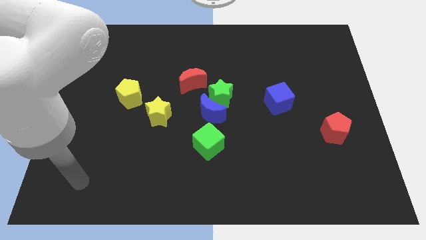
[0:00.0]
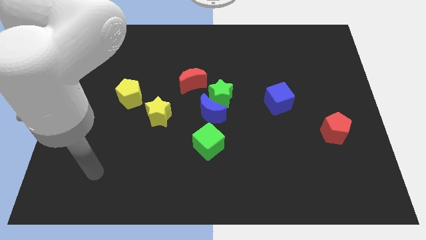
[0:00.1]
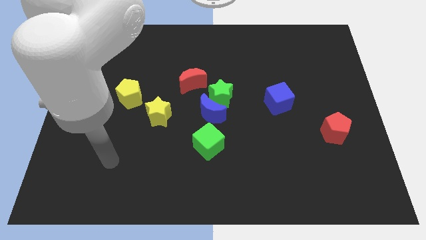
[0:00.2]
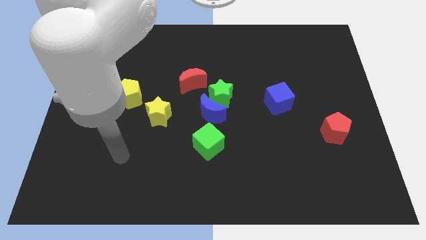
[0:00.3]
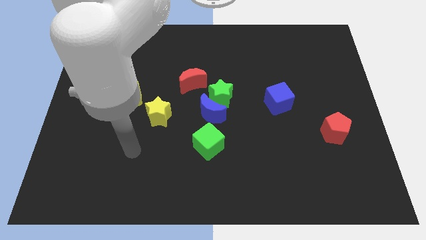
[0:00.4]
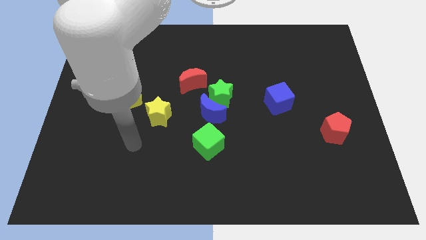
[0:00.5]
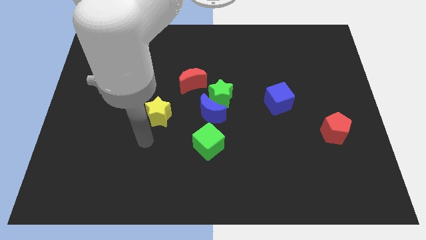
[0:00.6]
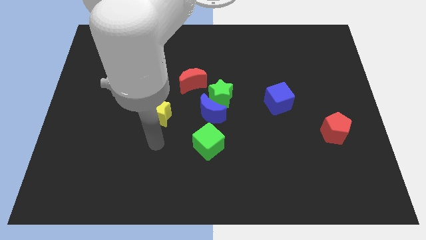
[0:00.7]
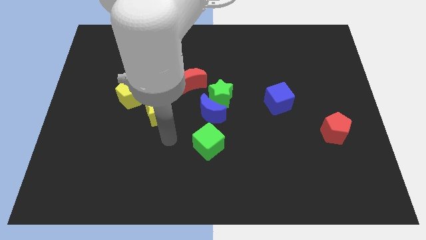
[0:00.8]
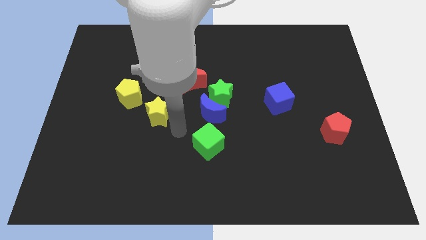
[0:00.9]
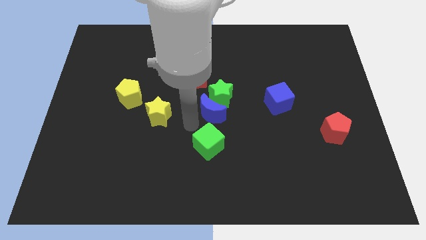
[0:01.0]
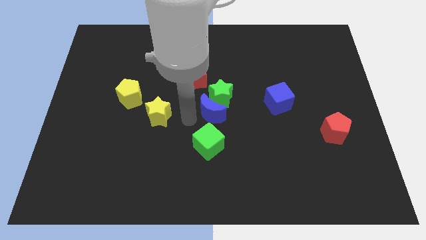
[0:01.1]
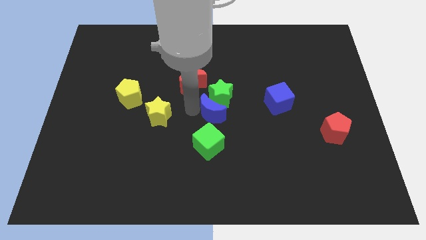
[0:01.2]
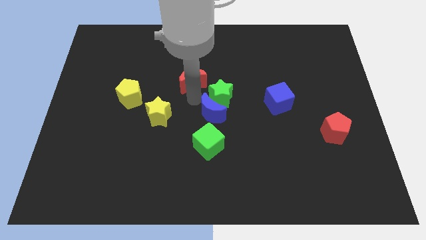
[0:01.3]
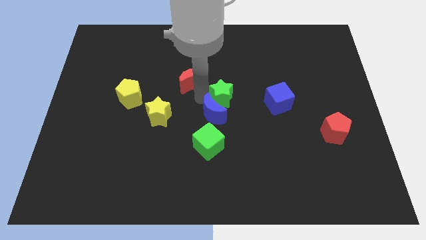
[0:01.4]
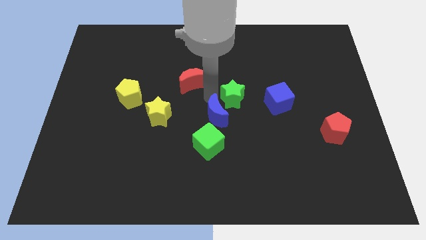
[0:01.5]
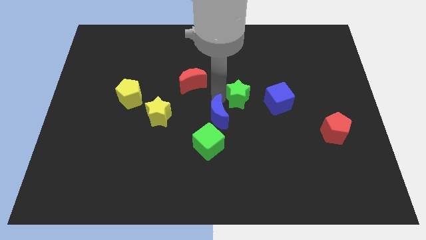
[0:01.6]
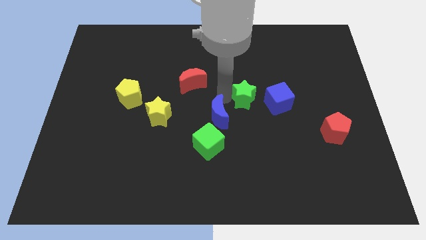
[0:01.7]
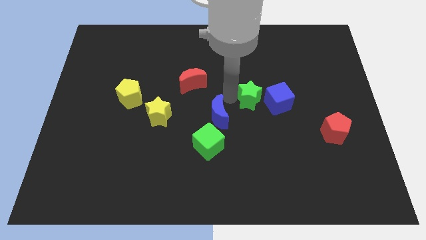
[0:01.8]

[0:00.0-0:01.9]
move the green star away from the blue moon and red moon

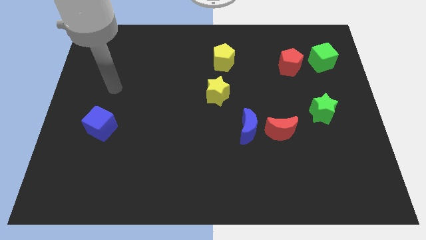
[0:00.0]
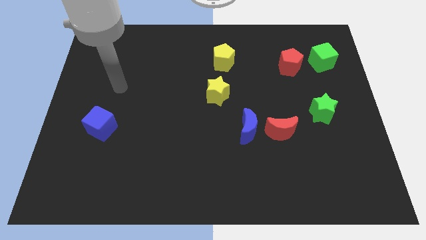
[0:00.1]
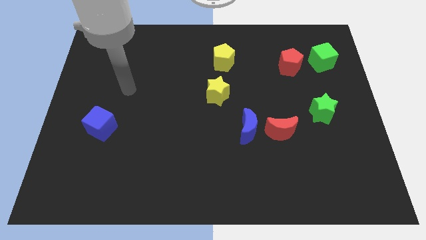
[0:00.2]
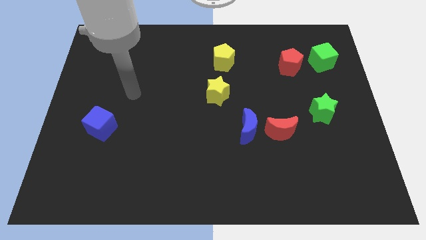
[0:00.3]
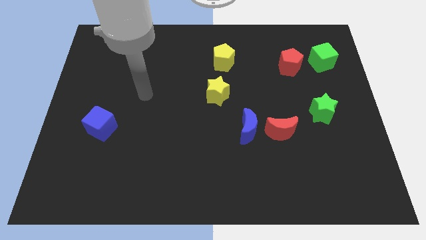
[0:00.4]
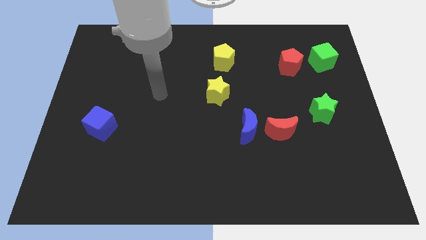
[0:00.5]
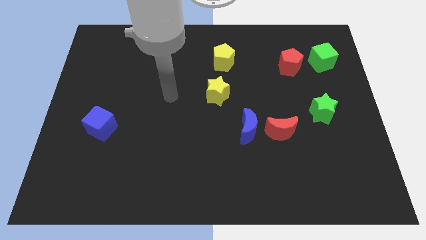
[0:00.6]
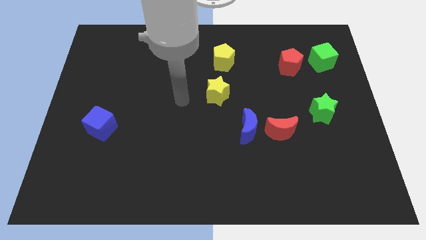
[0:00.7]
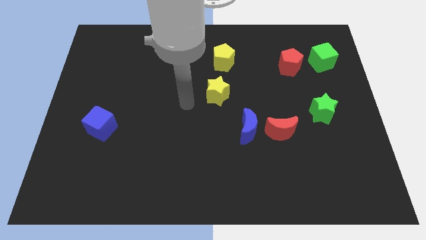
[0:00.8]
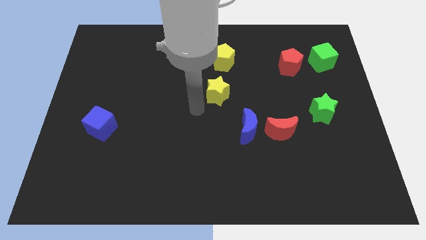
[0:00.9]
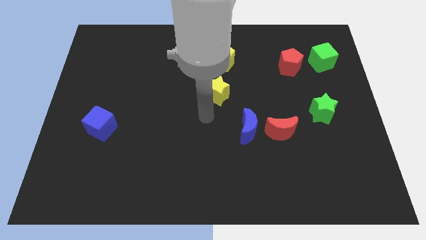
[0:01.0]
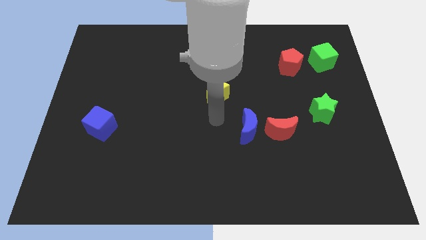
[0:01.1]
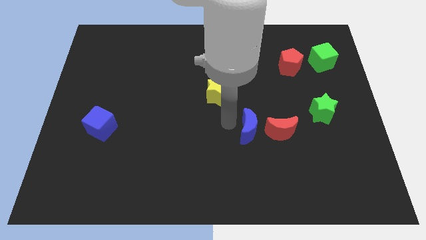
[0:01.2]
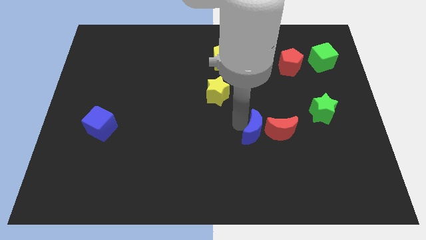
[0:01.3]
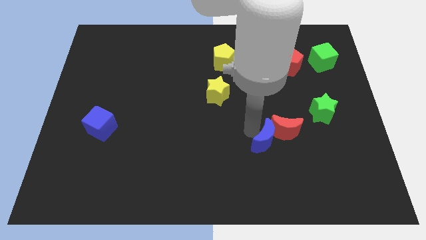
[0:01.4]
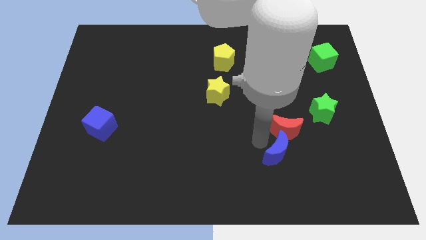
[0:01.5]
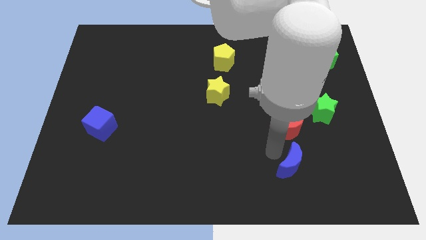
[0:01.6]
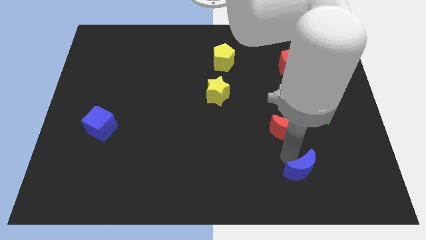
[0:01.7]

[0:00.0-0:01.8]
pull the red moon apart from the blue moon

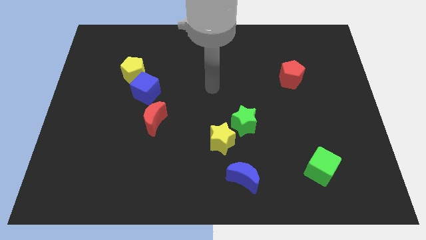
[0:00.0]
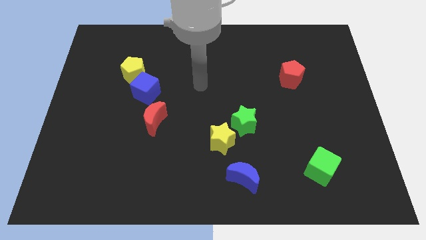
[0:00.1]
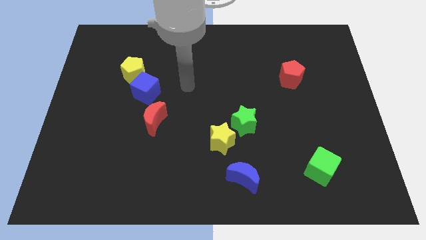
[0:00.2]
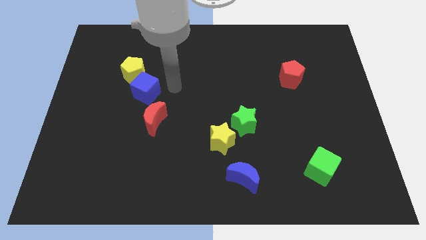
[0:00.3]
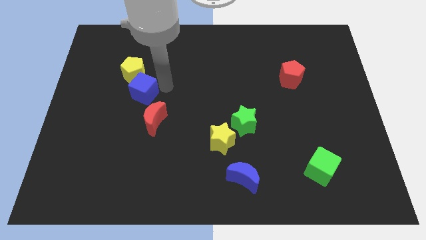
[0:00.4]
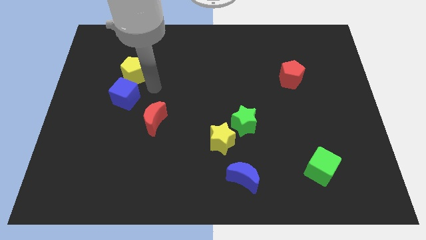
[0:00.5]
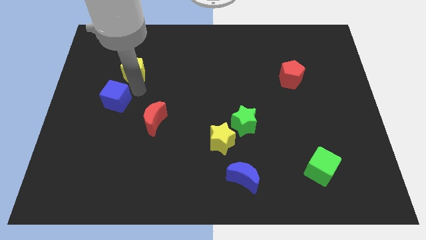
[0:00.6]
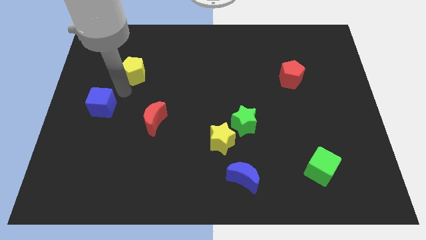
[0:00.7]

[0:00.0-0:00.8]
separate the yellow pentagon from the blue cube

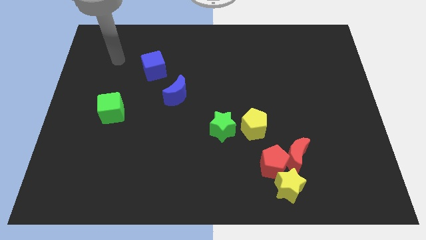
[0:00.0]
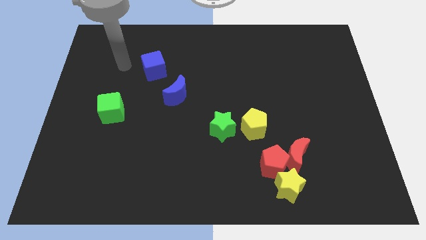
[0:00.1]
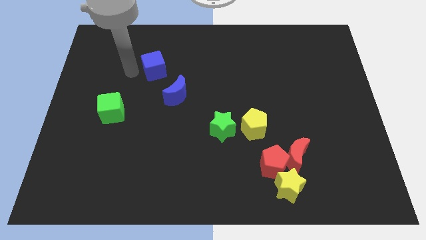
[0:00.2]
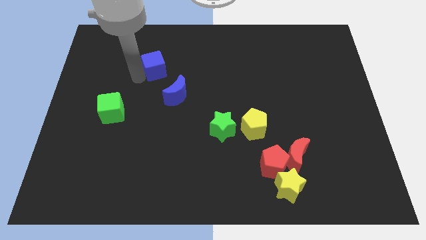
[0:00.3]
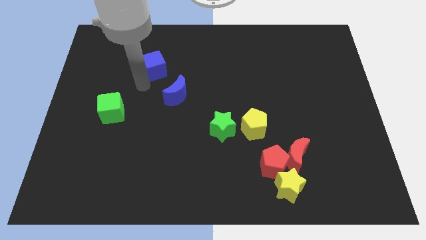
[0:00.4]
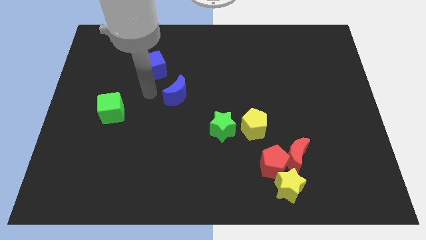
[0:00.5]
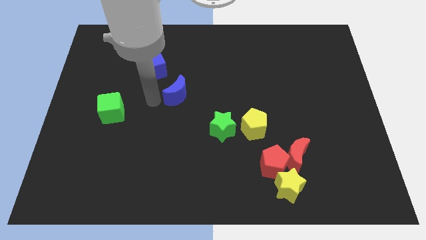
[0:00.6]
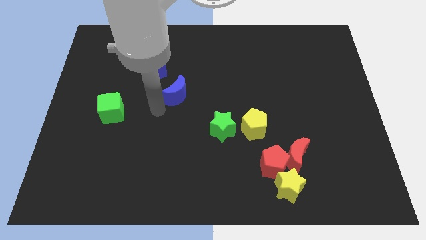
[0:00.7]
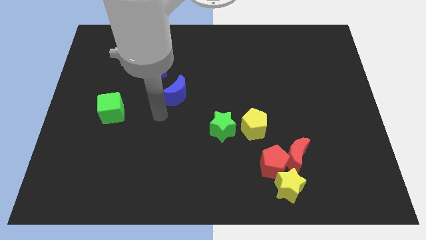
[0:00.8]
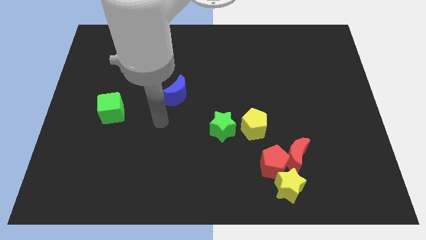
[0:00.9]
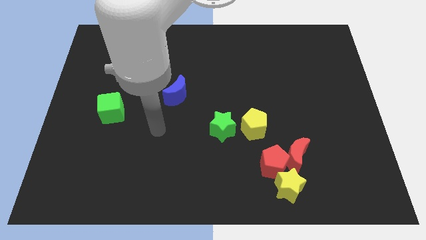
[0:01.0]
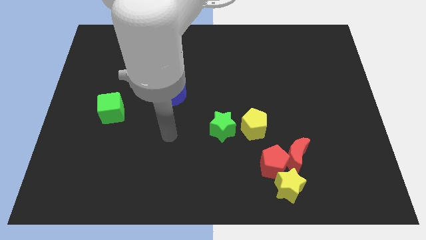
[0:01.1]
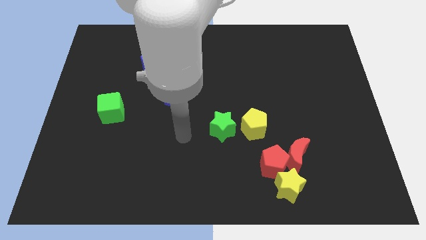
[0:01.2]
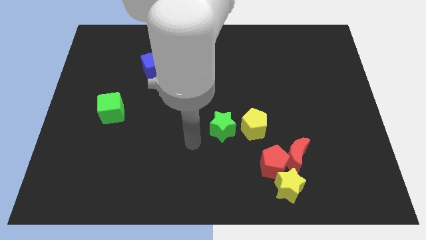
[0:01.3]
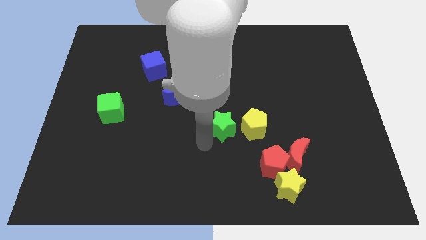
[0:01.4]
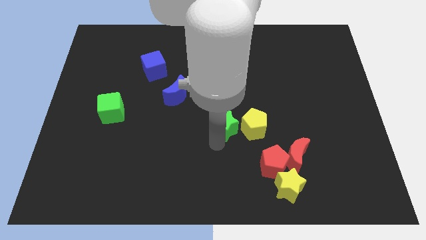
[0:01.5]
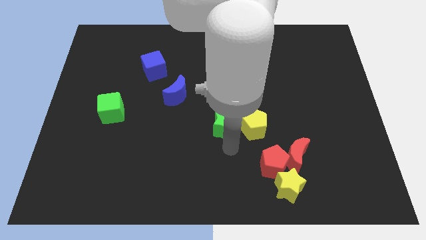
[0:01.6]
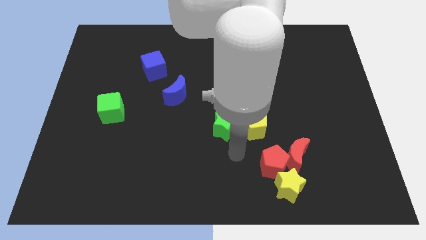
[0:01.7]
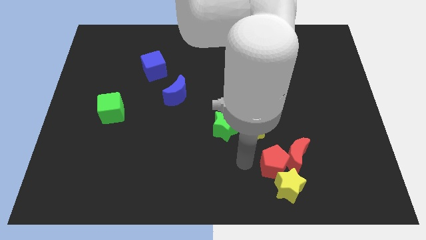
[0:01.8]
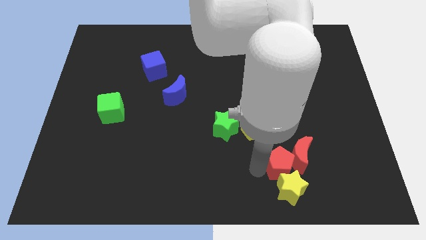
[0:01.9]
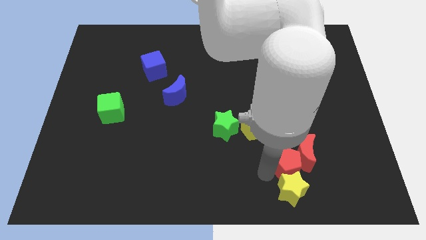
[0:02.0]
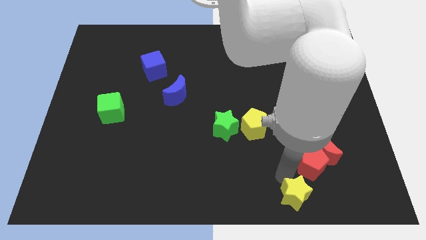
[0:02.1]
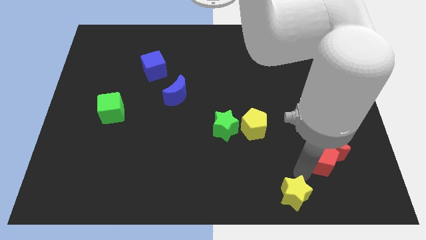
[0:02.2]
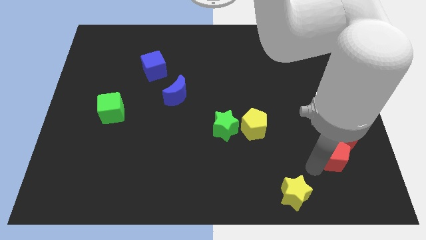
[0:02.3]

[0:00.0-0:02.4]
move the red moon away from the red pentagon and yellow star

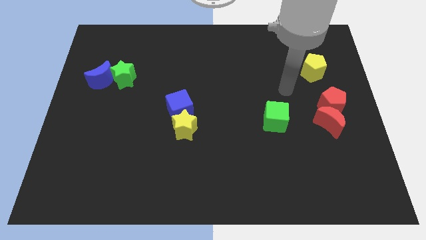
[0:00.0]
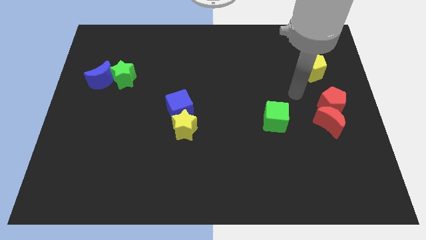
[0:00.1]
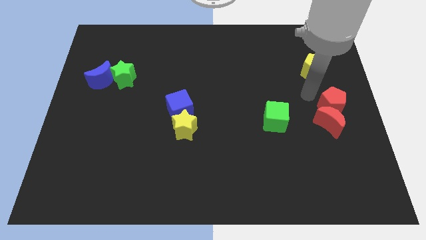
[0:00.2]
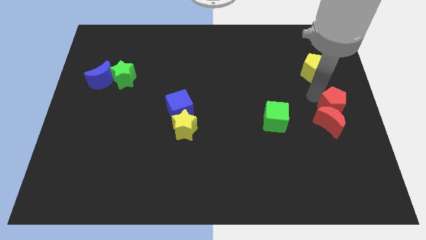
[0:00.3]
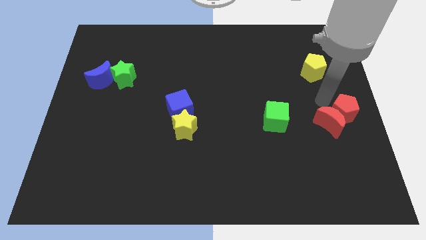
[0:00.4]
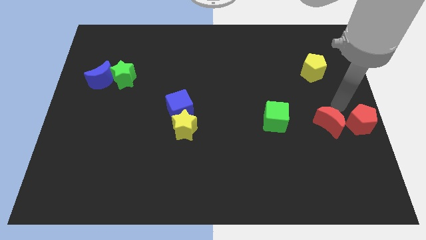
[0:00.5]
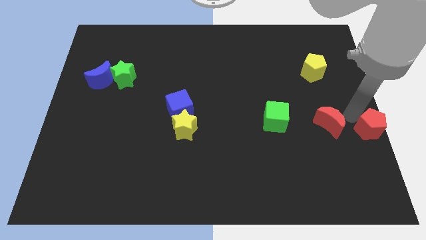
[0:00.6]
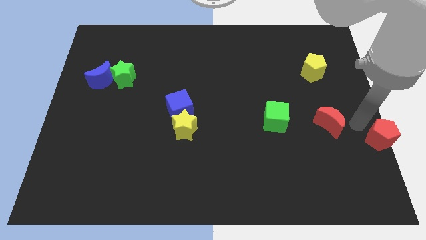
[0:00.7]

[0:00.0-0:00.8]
pull the red moon apart from the red pentagon

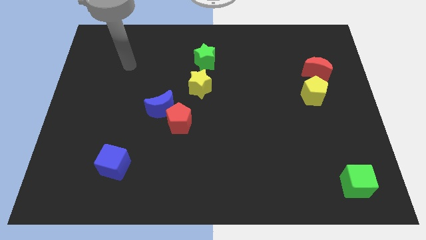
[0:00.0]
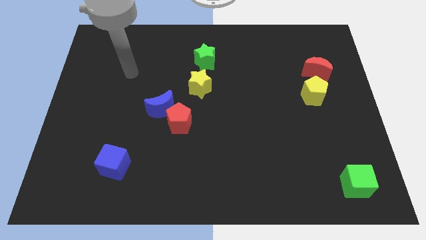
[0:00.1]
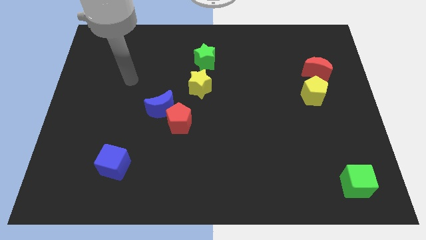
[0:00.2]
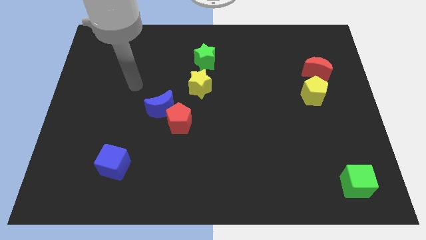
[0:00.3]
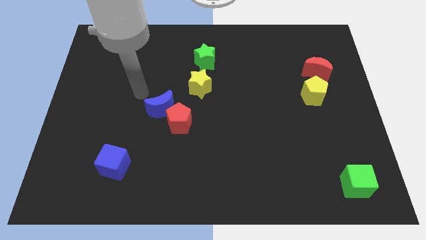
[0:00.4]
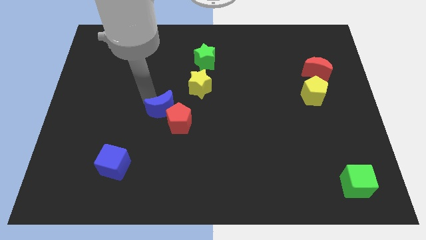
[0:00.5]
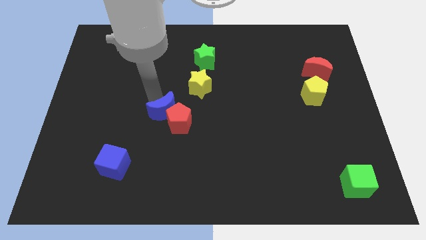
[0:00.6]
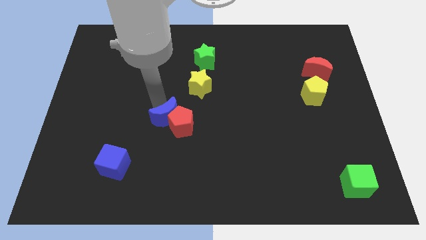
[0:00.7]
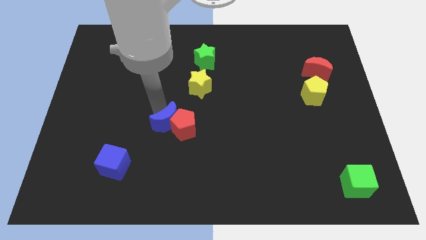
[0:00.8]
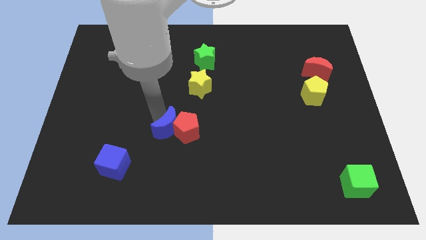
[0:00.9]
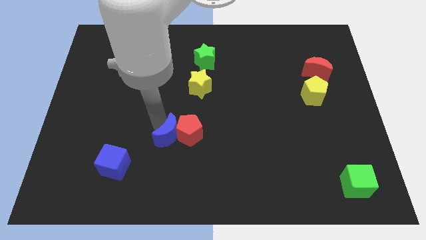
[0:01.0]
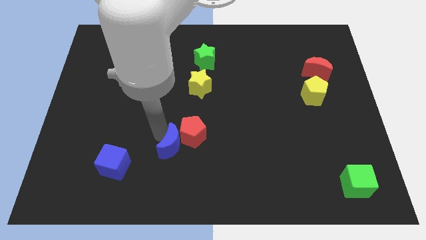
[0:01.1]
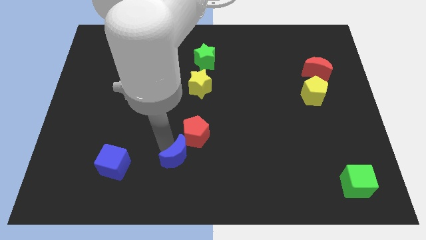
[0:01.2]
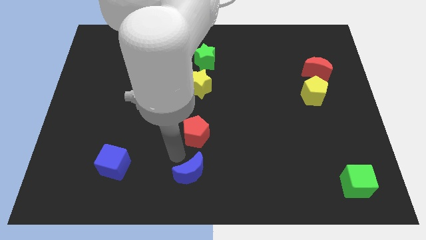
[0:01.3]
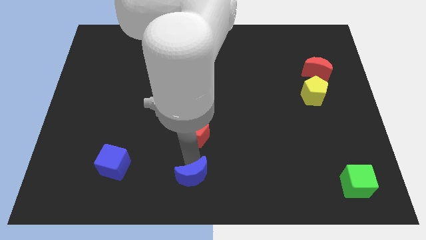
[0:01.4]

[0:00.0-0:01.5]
move the red pentagon away from the blue moon
